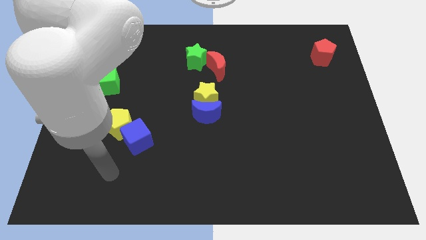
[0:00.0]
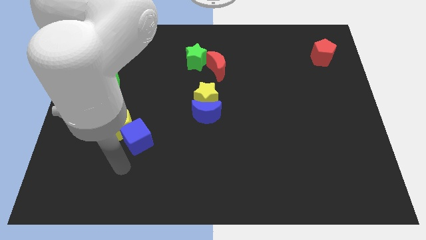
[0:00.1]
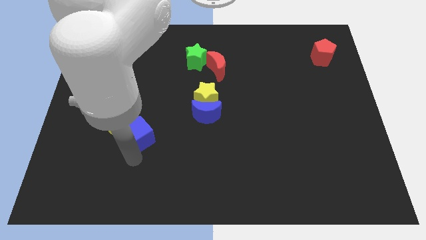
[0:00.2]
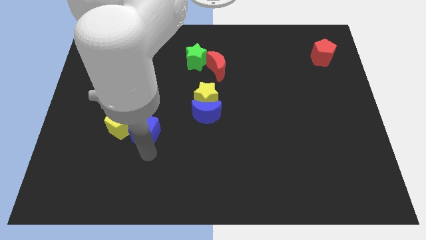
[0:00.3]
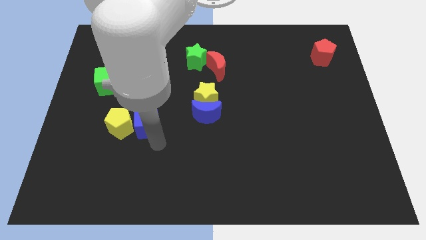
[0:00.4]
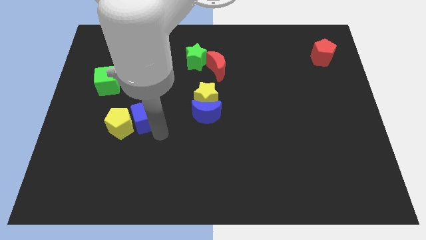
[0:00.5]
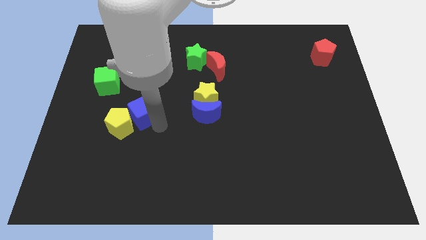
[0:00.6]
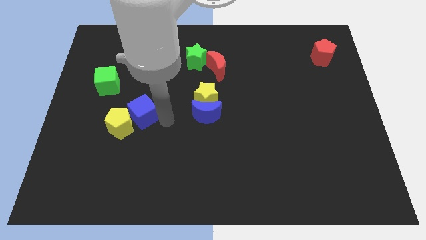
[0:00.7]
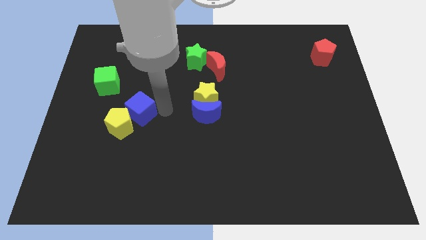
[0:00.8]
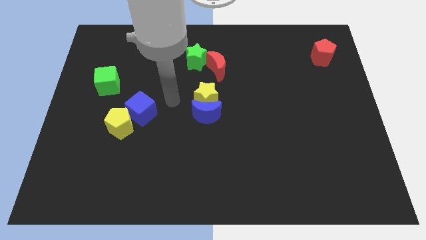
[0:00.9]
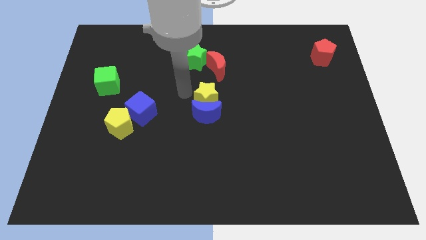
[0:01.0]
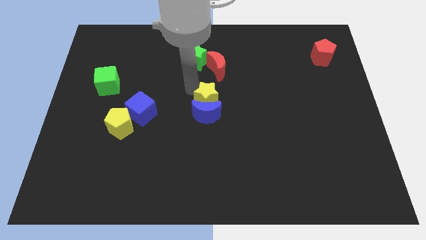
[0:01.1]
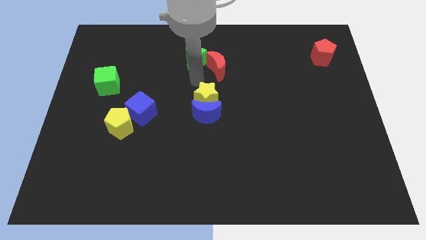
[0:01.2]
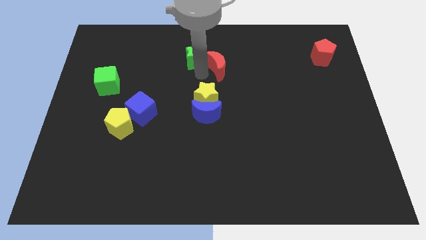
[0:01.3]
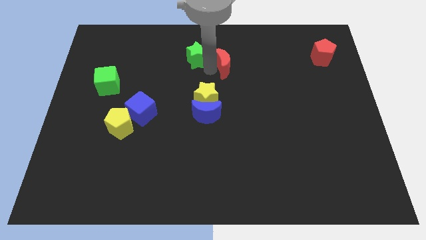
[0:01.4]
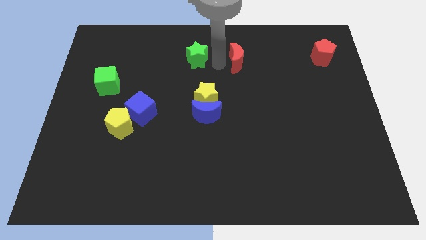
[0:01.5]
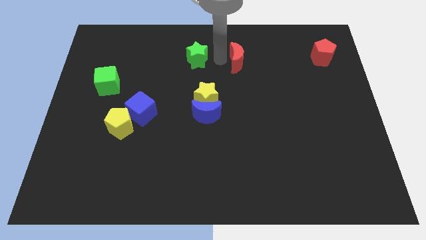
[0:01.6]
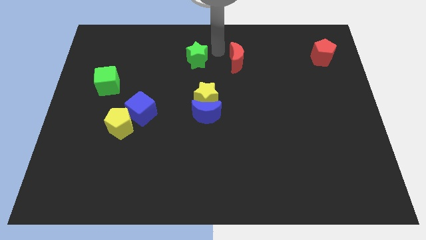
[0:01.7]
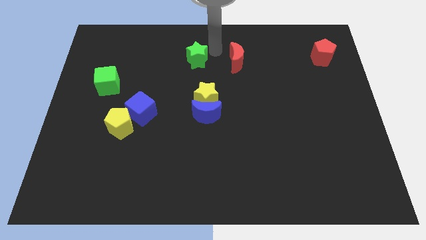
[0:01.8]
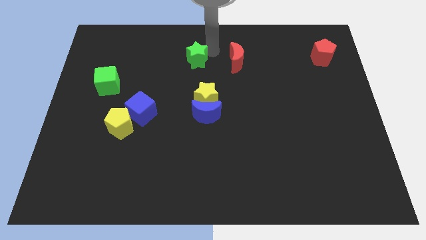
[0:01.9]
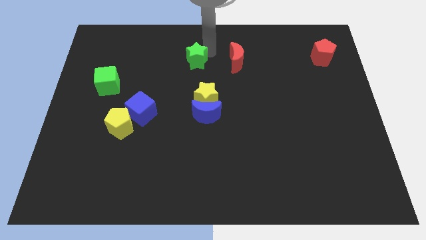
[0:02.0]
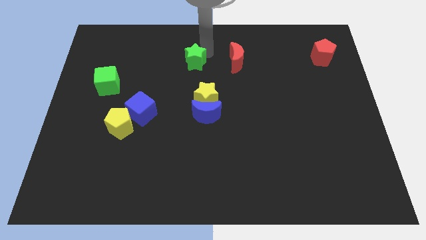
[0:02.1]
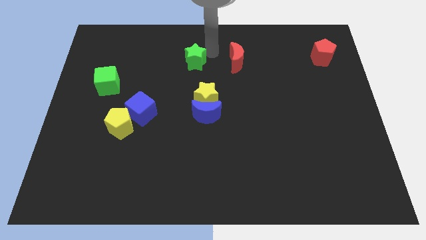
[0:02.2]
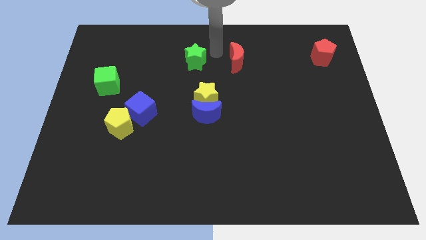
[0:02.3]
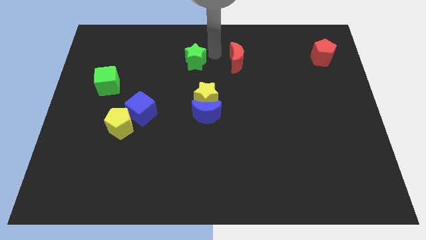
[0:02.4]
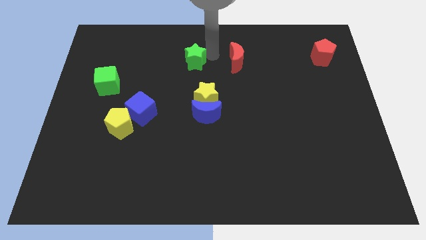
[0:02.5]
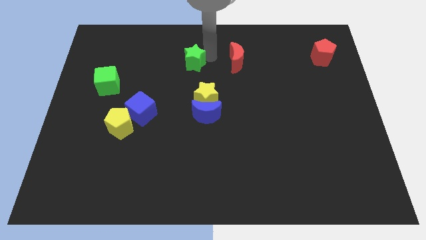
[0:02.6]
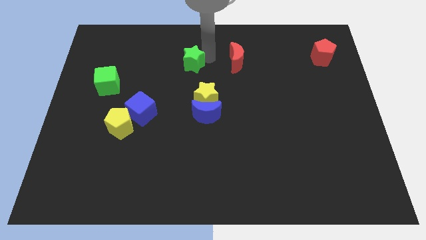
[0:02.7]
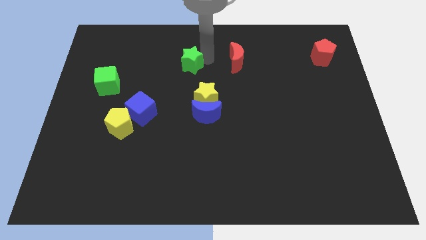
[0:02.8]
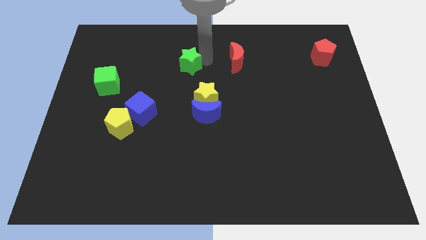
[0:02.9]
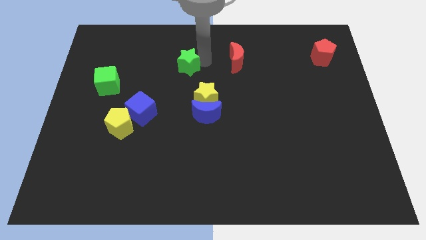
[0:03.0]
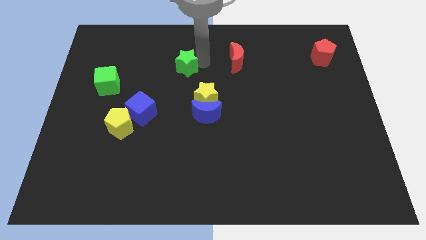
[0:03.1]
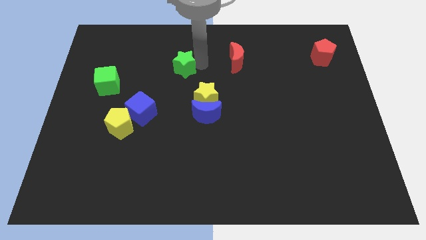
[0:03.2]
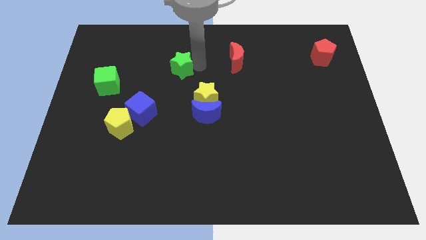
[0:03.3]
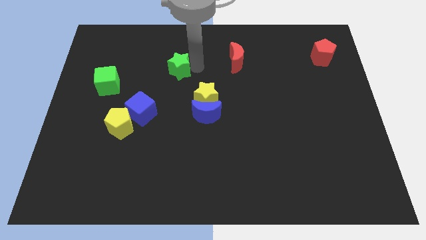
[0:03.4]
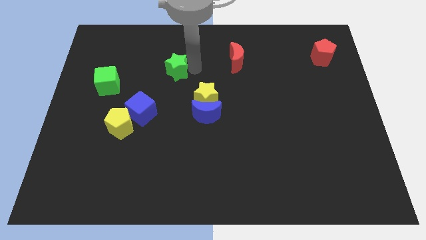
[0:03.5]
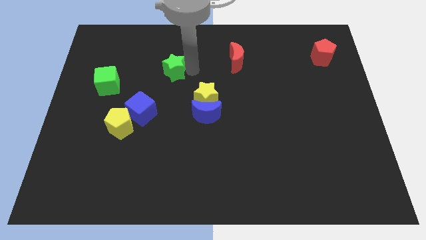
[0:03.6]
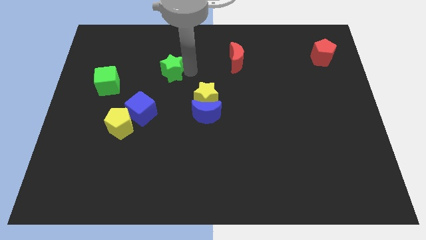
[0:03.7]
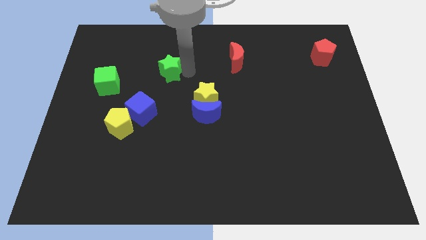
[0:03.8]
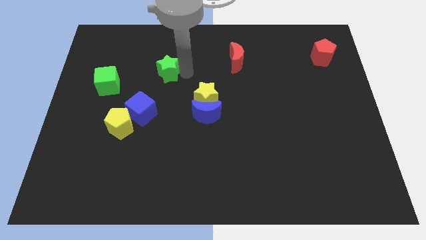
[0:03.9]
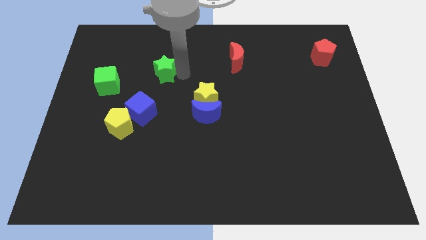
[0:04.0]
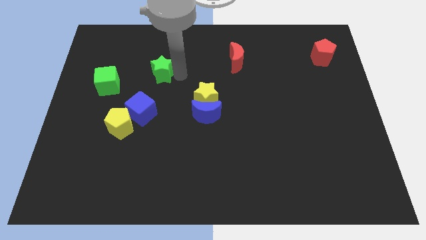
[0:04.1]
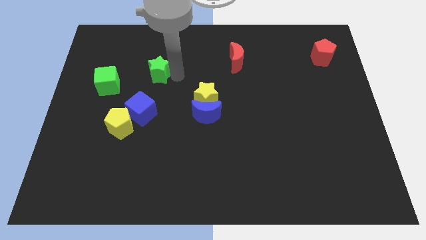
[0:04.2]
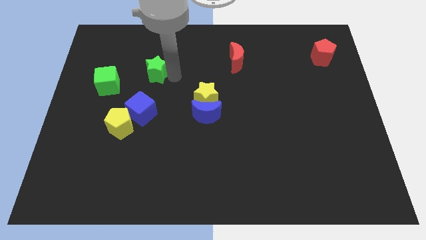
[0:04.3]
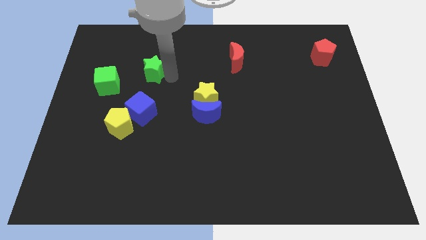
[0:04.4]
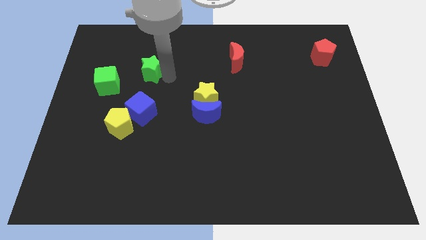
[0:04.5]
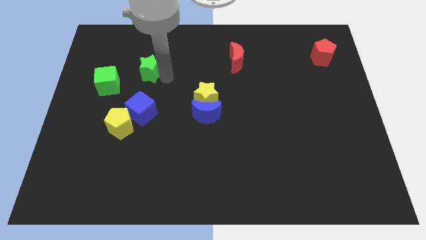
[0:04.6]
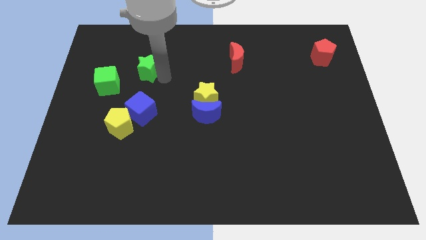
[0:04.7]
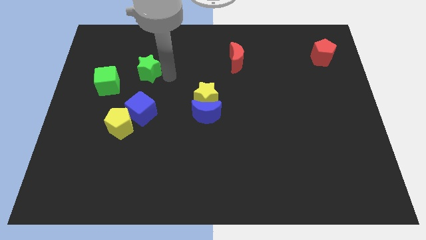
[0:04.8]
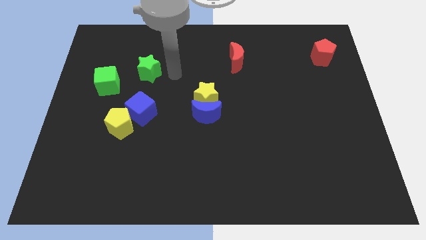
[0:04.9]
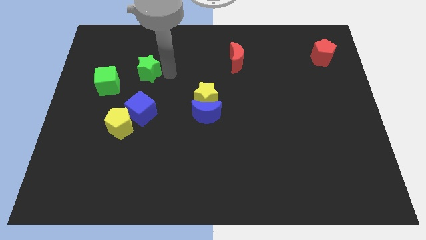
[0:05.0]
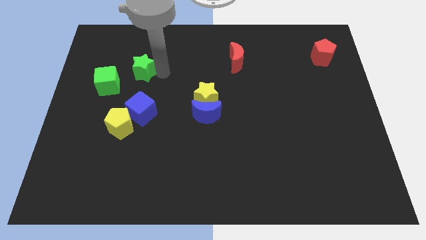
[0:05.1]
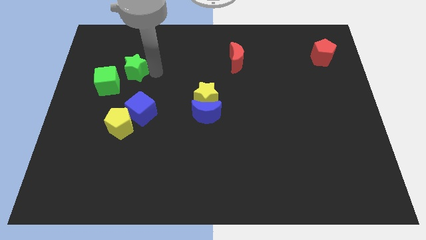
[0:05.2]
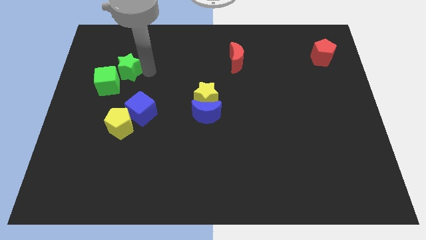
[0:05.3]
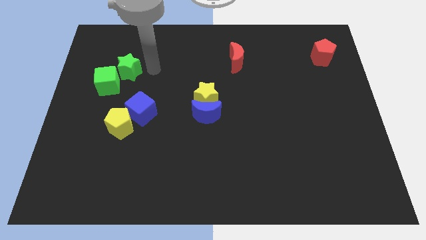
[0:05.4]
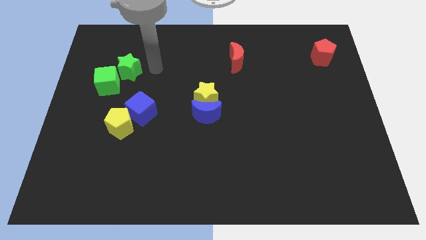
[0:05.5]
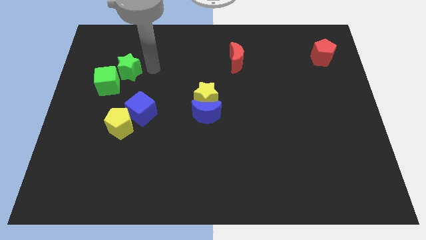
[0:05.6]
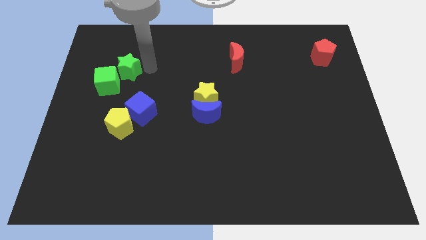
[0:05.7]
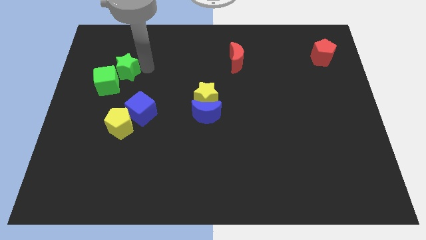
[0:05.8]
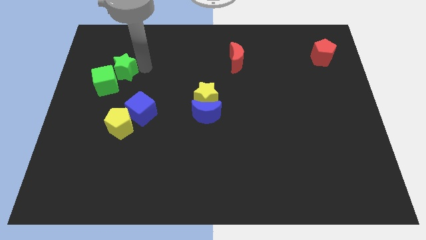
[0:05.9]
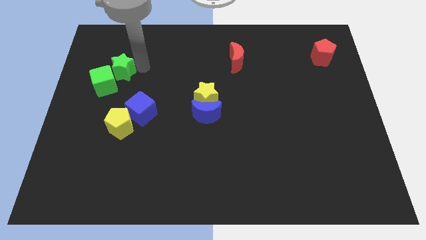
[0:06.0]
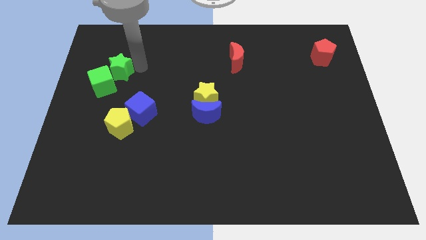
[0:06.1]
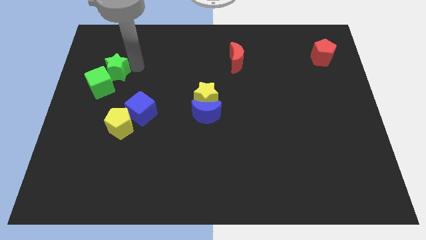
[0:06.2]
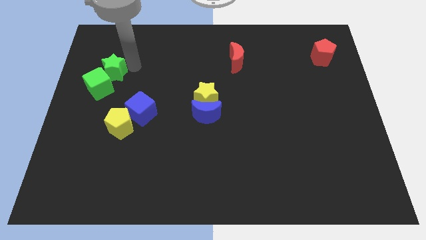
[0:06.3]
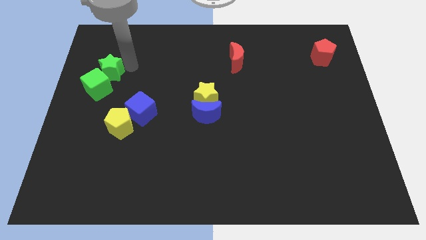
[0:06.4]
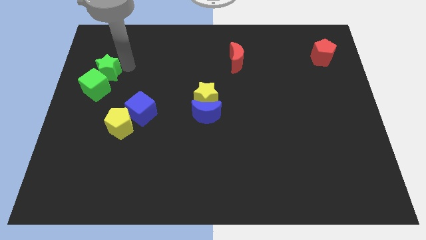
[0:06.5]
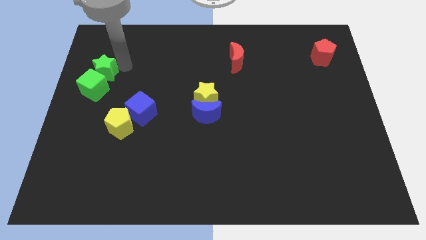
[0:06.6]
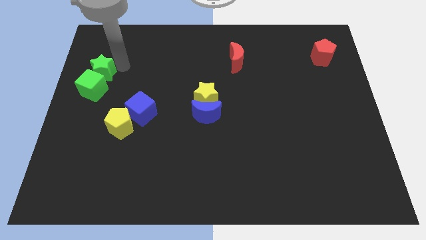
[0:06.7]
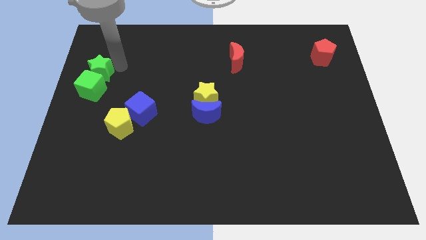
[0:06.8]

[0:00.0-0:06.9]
slide the green star to the center left

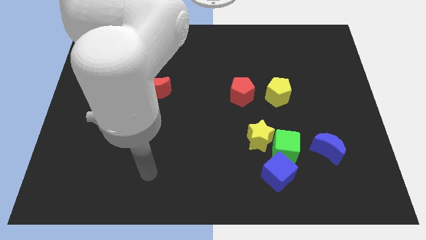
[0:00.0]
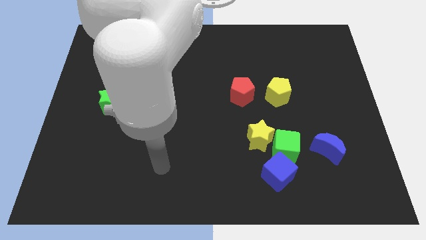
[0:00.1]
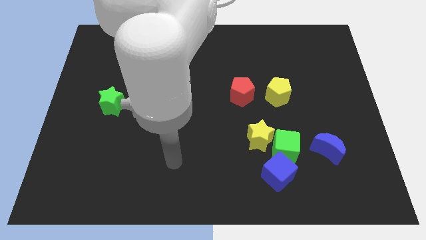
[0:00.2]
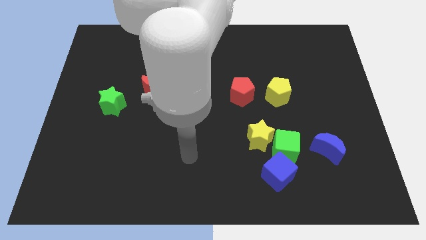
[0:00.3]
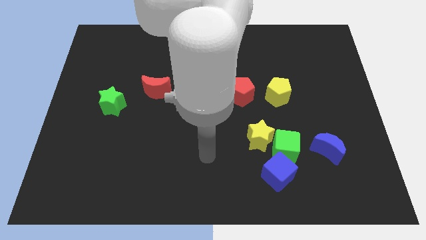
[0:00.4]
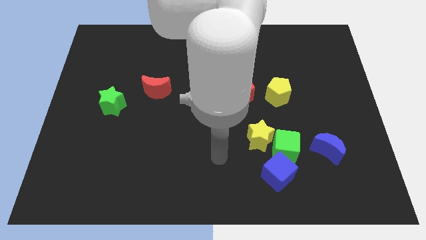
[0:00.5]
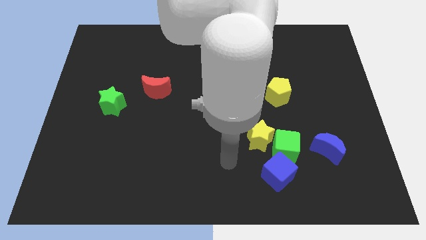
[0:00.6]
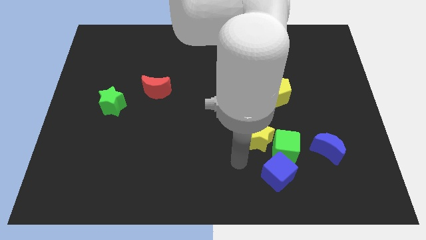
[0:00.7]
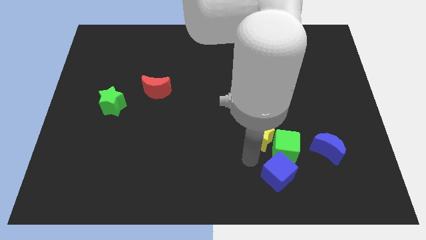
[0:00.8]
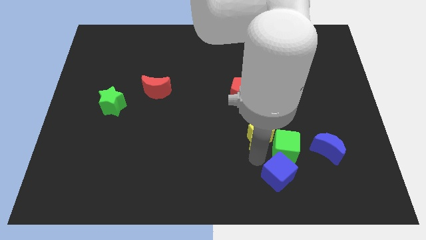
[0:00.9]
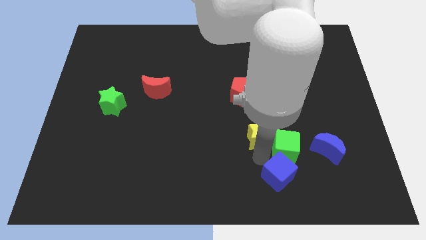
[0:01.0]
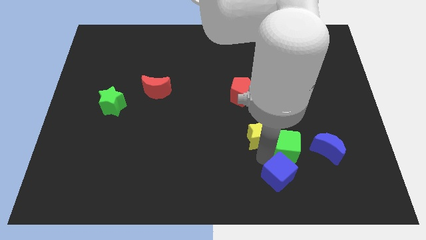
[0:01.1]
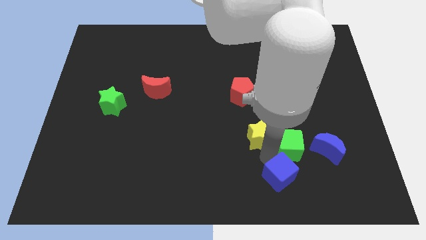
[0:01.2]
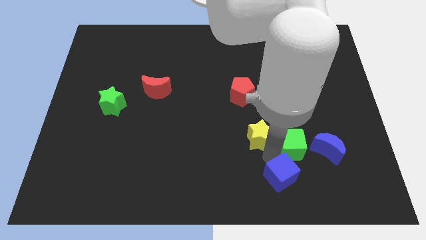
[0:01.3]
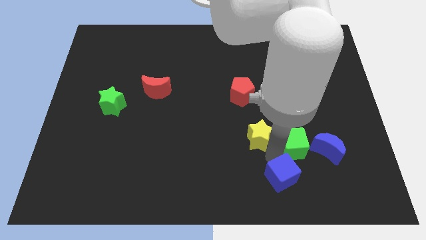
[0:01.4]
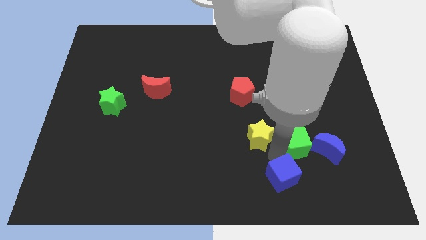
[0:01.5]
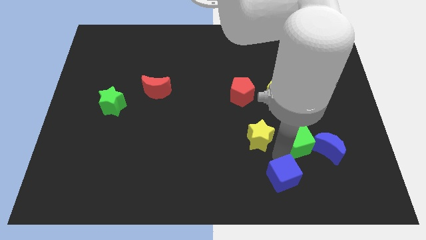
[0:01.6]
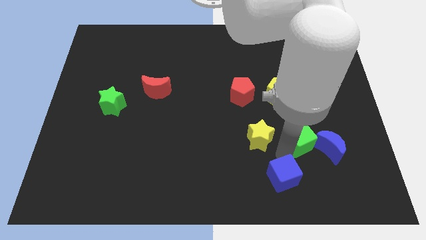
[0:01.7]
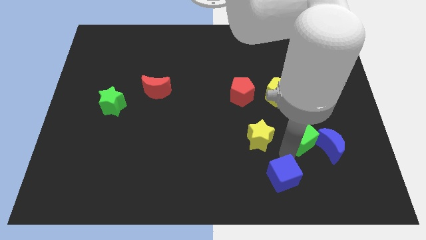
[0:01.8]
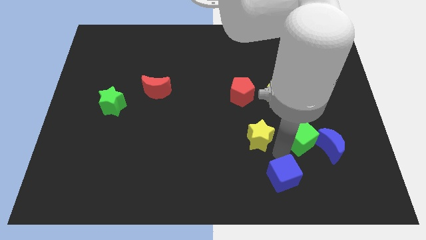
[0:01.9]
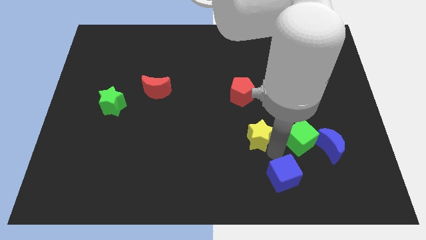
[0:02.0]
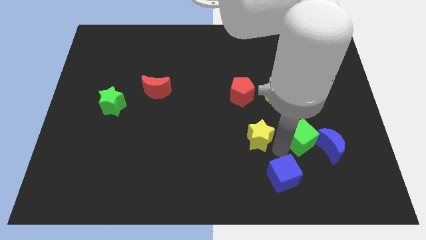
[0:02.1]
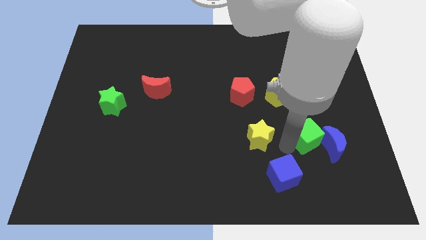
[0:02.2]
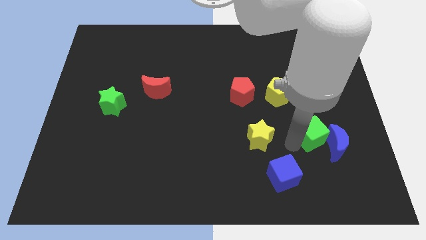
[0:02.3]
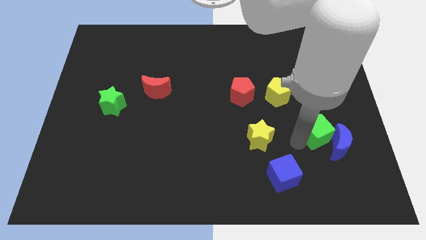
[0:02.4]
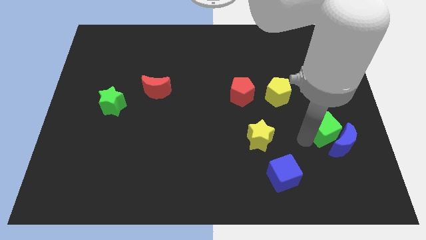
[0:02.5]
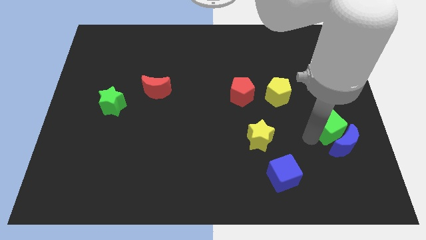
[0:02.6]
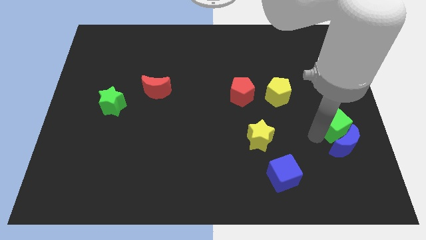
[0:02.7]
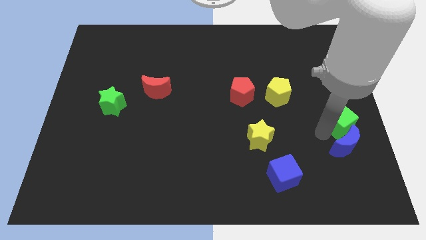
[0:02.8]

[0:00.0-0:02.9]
put the green cube to the right side
